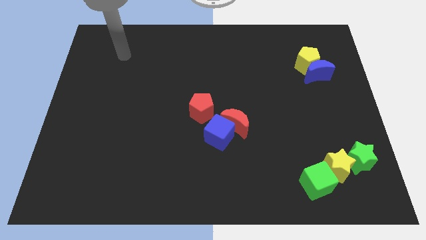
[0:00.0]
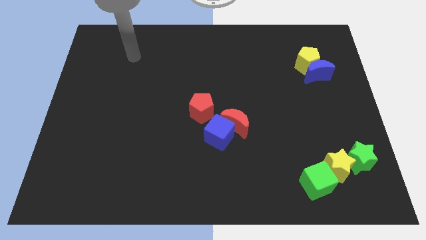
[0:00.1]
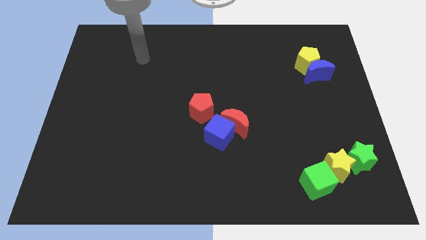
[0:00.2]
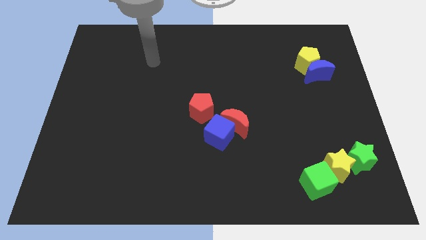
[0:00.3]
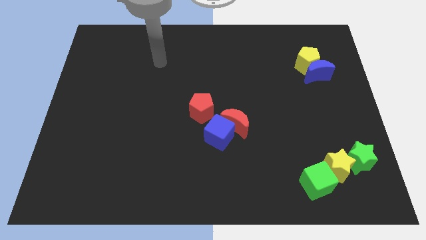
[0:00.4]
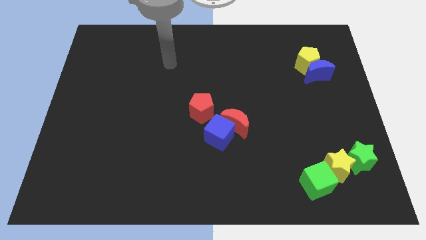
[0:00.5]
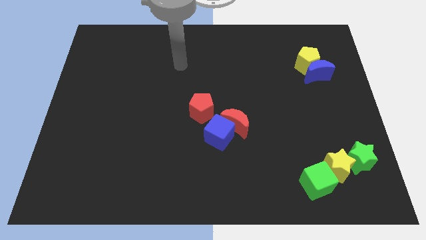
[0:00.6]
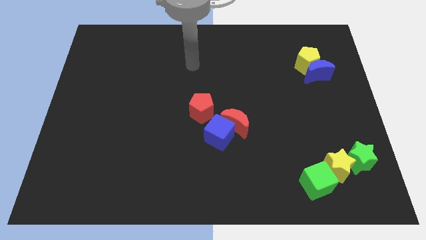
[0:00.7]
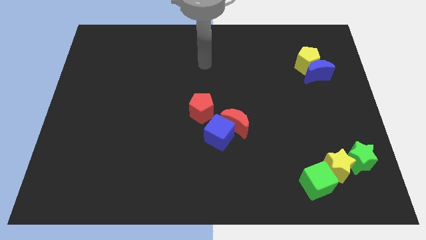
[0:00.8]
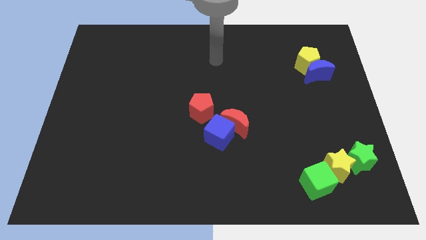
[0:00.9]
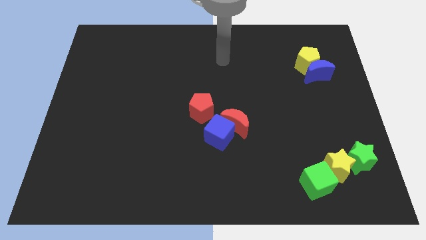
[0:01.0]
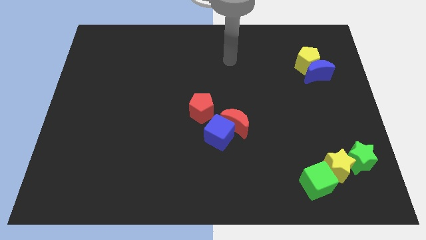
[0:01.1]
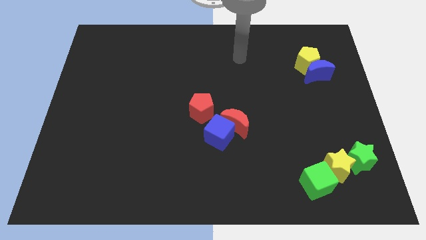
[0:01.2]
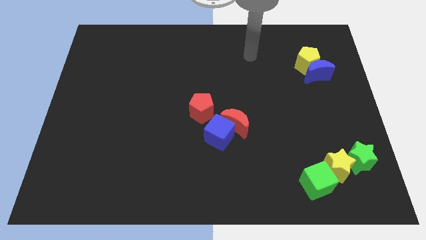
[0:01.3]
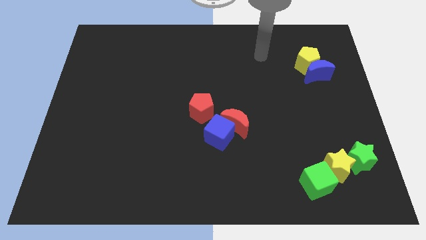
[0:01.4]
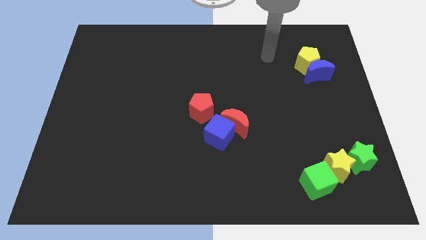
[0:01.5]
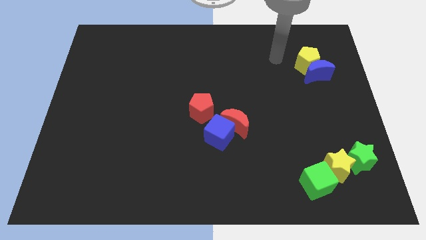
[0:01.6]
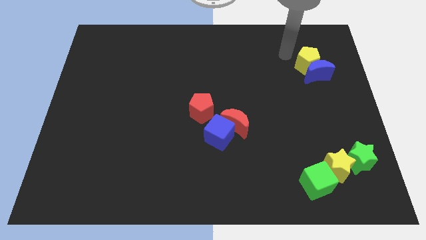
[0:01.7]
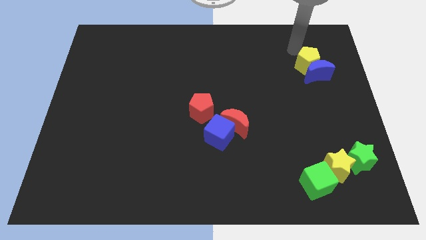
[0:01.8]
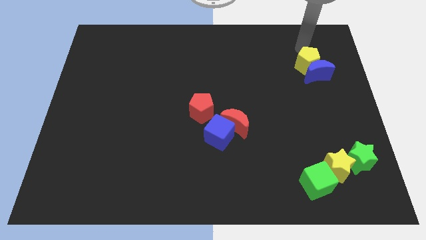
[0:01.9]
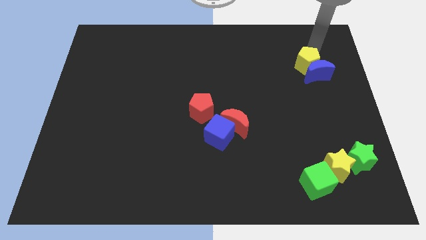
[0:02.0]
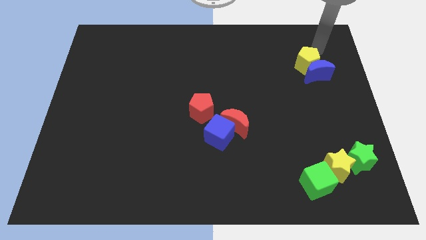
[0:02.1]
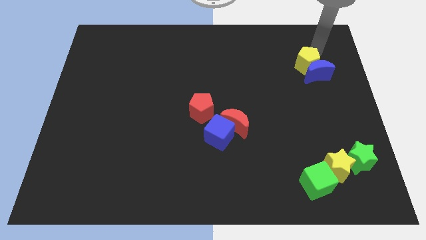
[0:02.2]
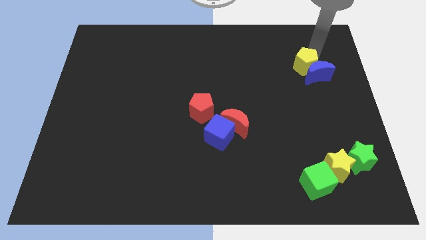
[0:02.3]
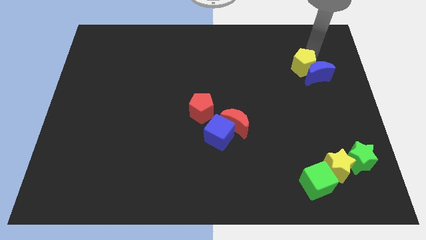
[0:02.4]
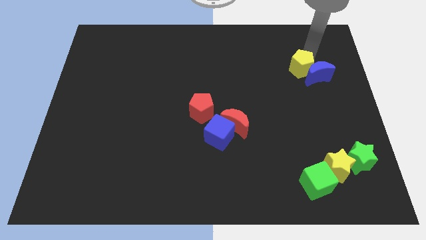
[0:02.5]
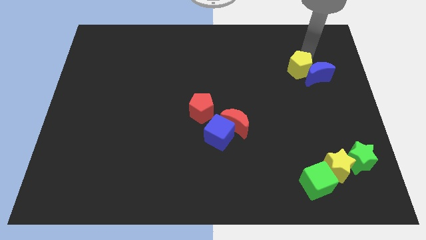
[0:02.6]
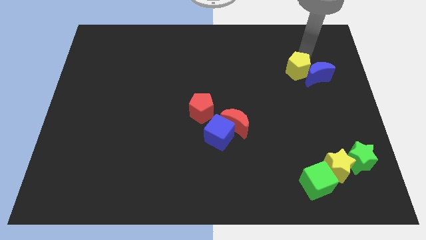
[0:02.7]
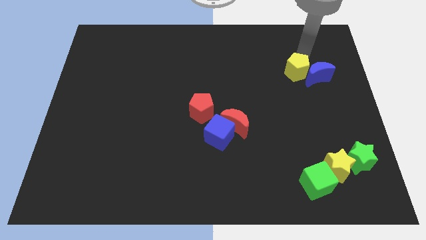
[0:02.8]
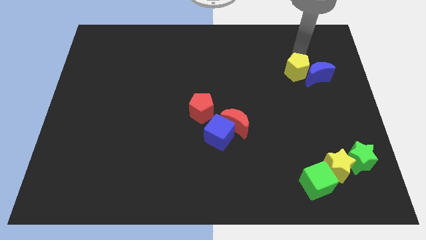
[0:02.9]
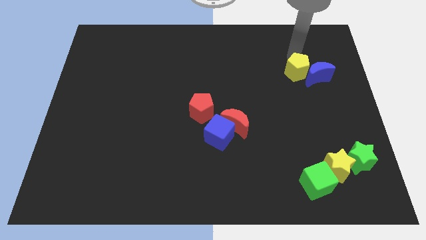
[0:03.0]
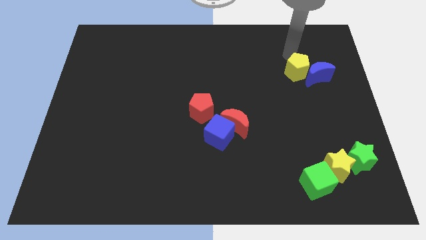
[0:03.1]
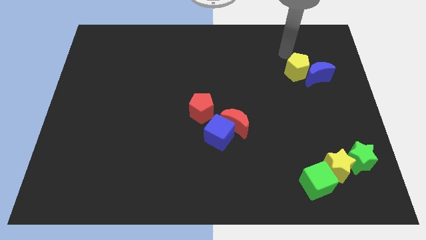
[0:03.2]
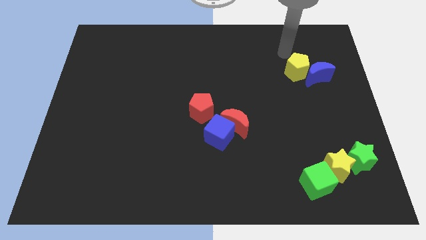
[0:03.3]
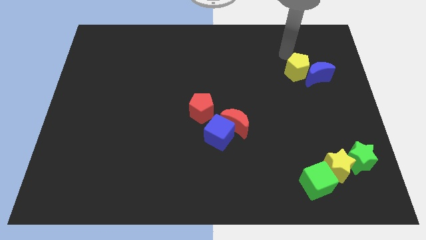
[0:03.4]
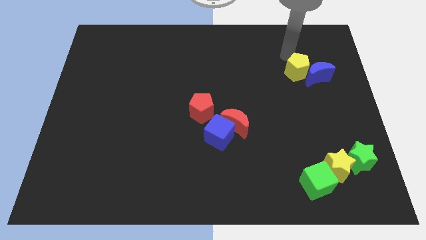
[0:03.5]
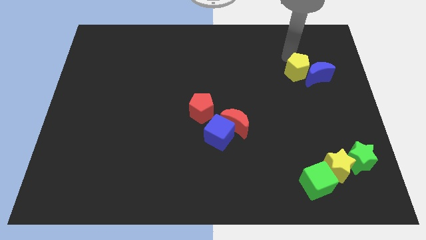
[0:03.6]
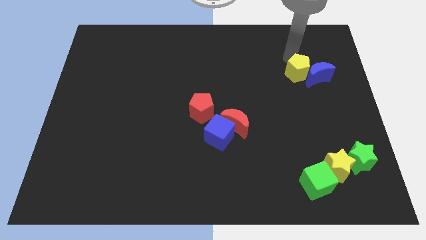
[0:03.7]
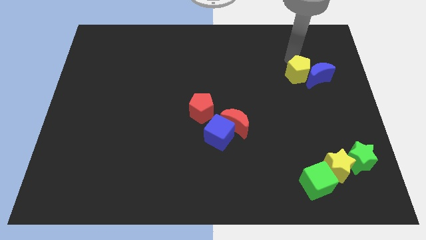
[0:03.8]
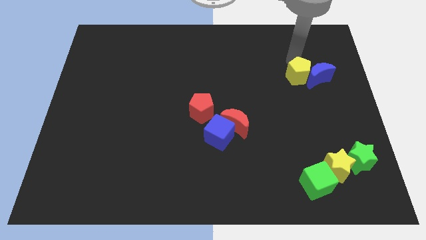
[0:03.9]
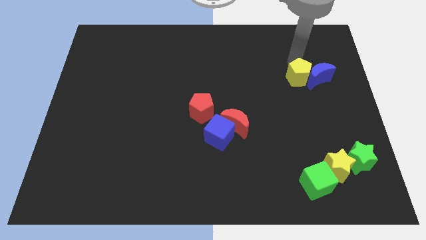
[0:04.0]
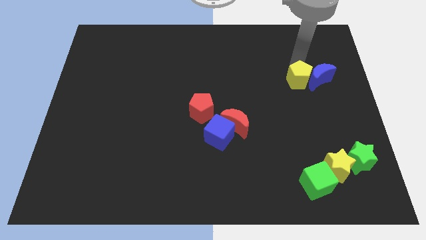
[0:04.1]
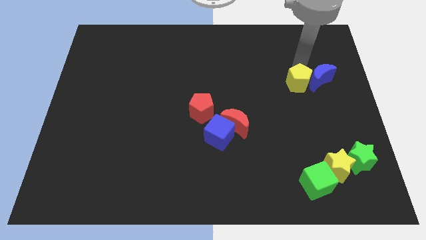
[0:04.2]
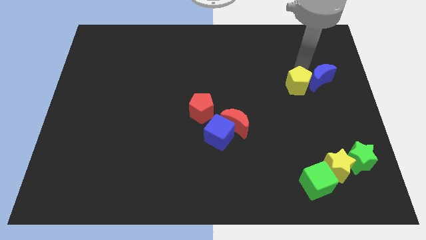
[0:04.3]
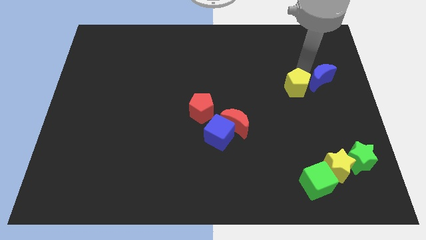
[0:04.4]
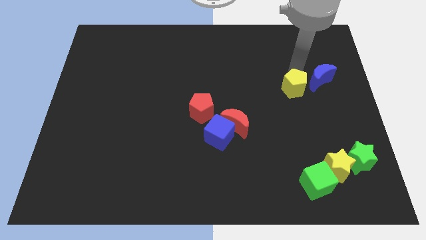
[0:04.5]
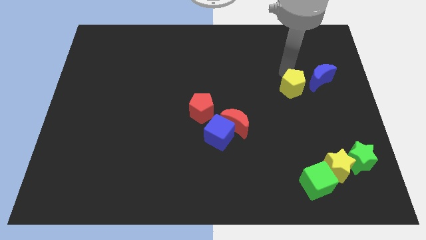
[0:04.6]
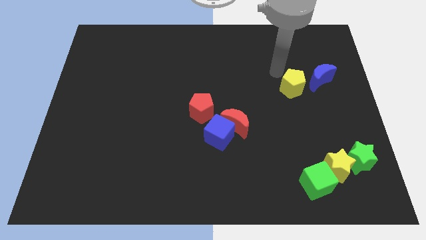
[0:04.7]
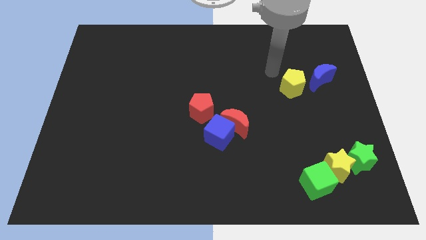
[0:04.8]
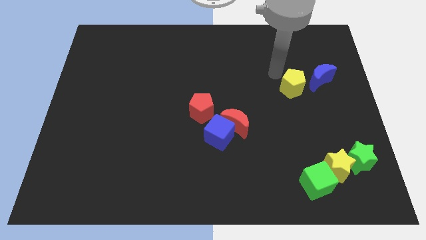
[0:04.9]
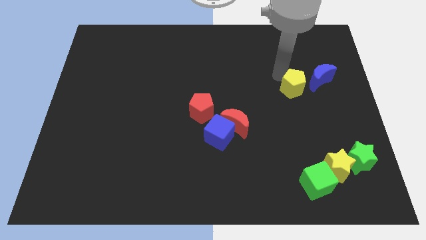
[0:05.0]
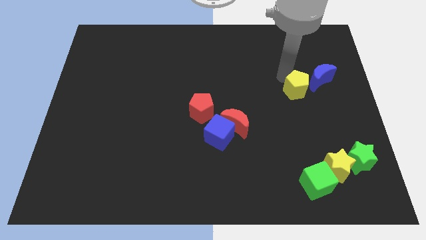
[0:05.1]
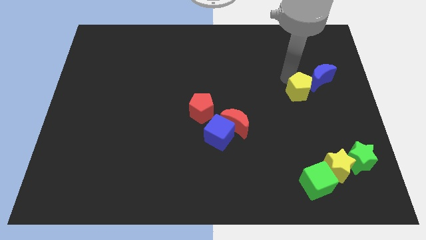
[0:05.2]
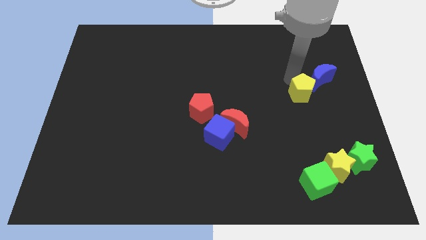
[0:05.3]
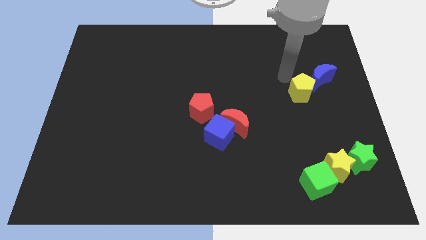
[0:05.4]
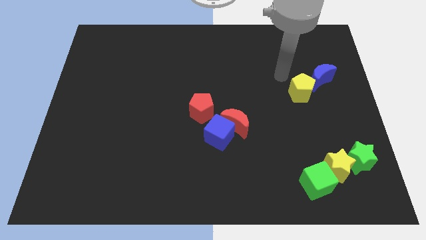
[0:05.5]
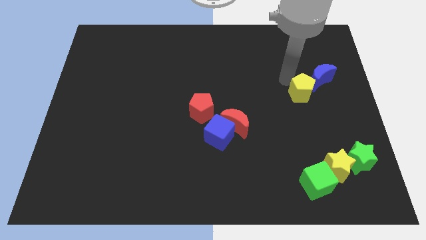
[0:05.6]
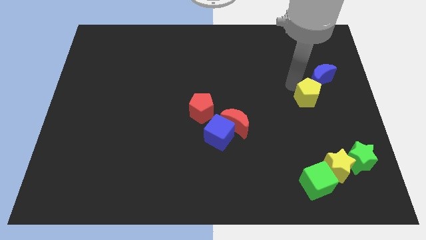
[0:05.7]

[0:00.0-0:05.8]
push the yellow pentagon to the bottom of the blue moon

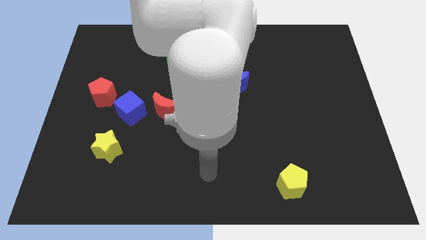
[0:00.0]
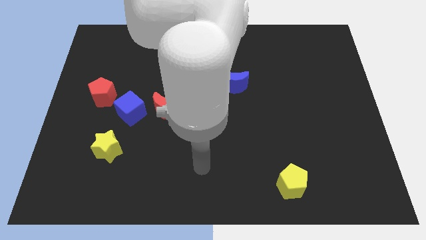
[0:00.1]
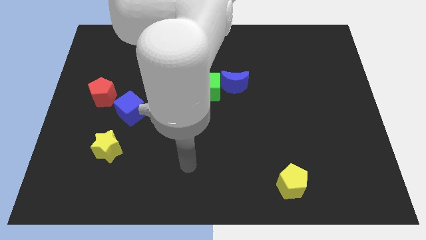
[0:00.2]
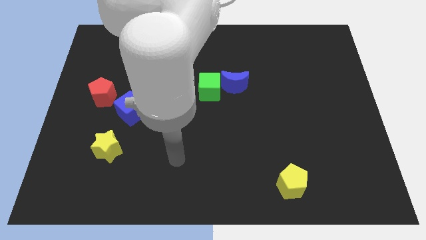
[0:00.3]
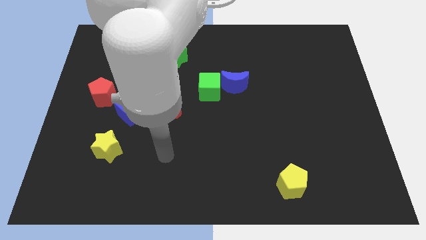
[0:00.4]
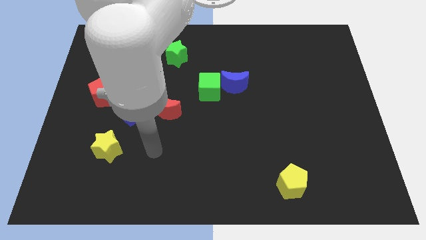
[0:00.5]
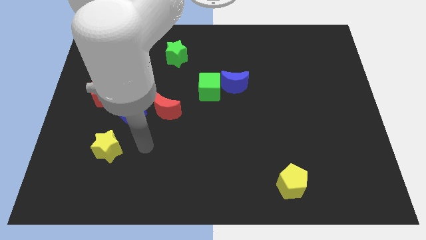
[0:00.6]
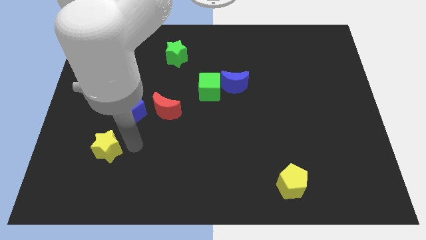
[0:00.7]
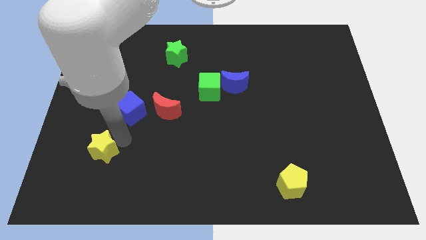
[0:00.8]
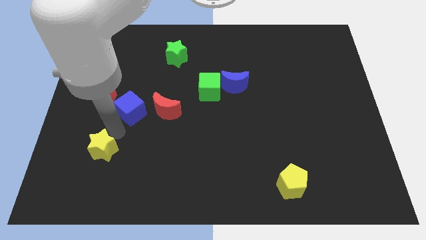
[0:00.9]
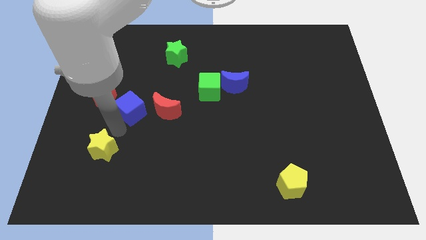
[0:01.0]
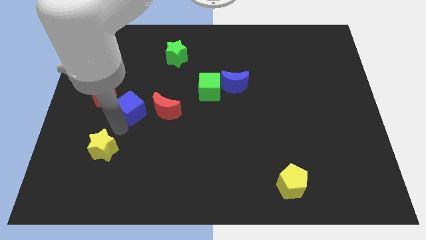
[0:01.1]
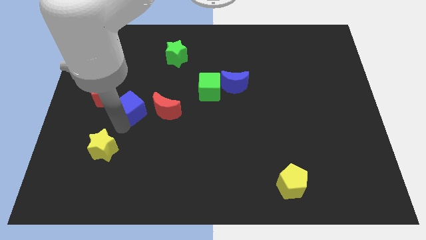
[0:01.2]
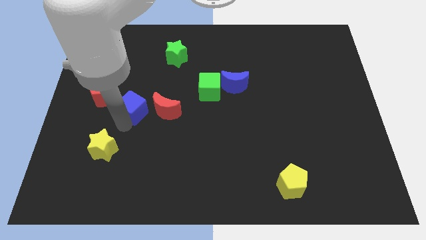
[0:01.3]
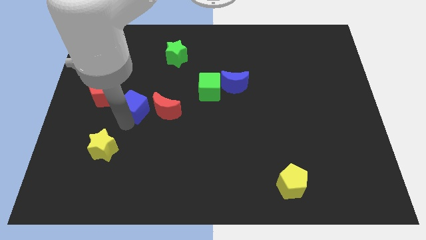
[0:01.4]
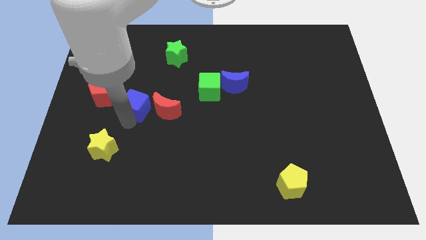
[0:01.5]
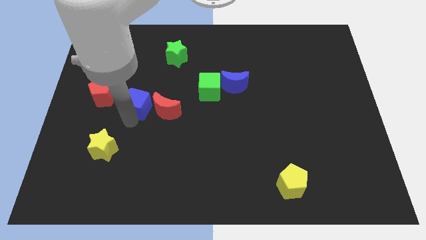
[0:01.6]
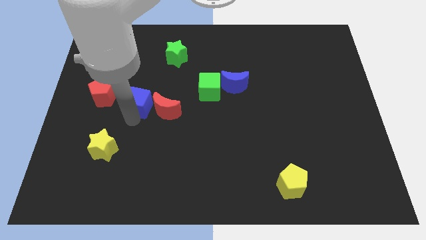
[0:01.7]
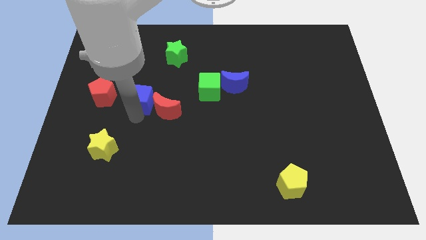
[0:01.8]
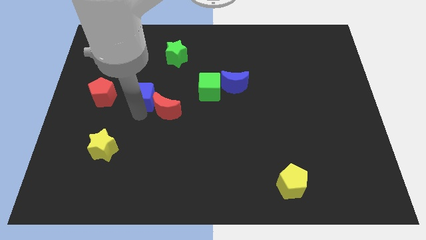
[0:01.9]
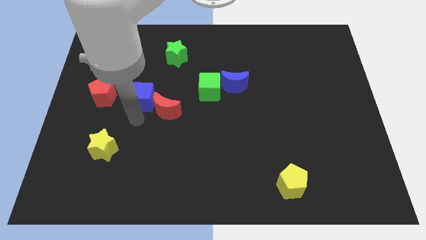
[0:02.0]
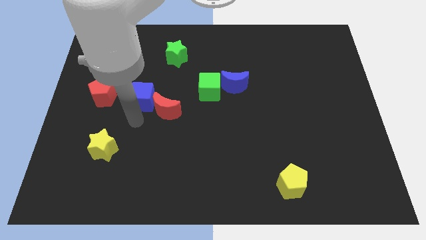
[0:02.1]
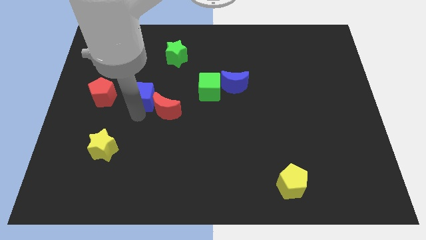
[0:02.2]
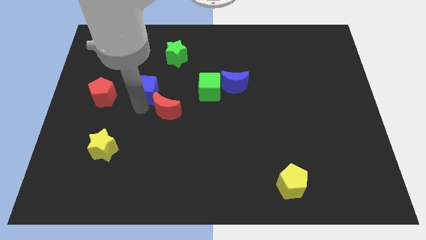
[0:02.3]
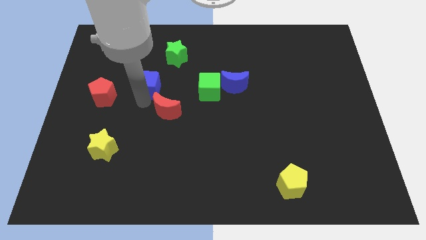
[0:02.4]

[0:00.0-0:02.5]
slide the blue cube to the bottom left of the green star
